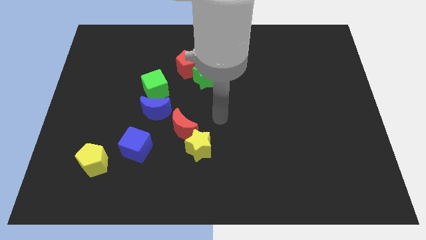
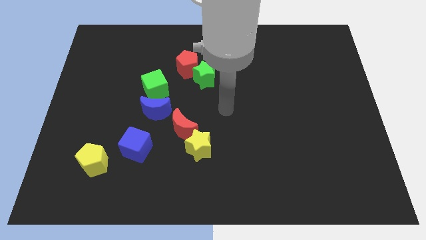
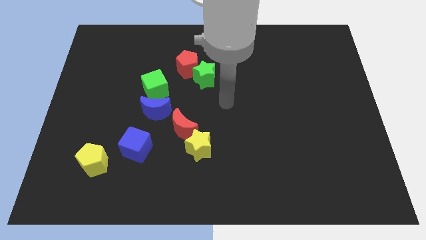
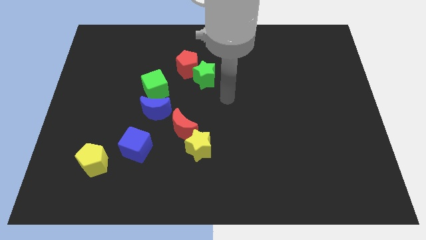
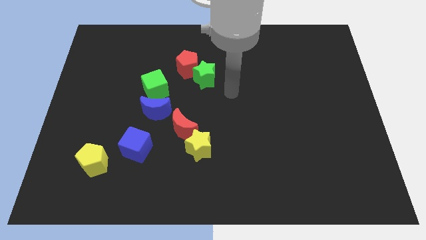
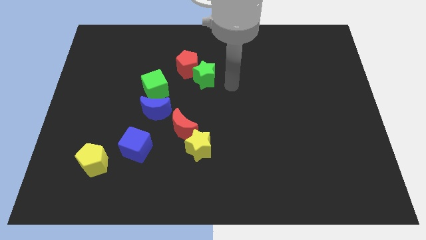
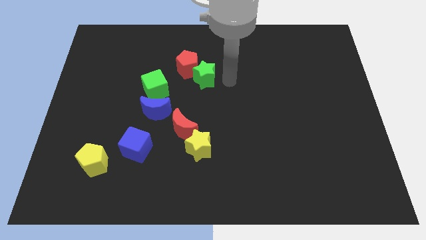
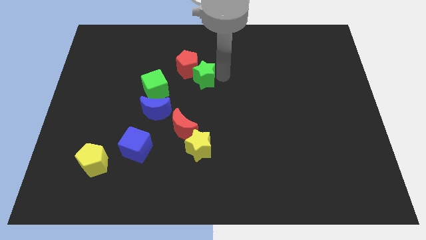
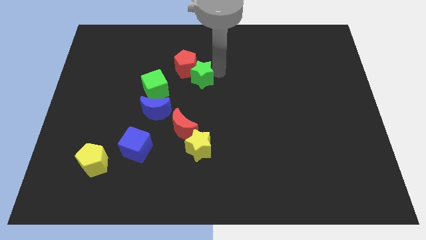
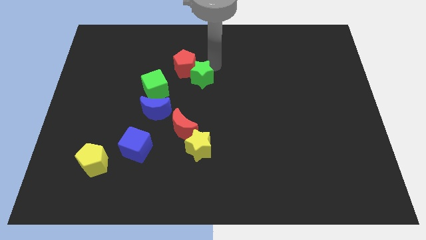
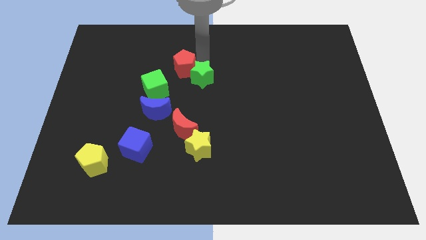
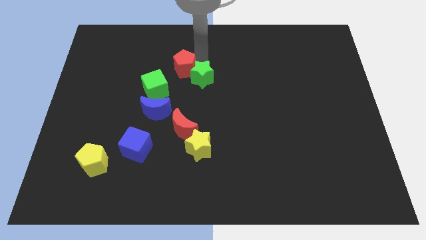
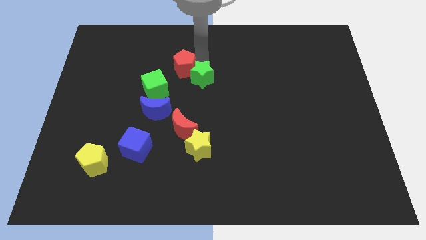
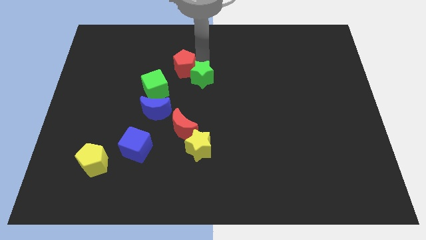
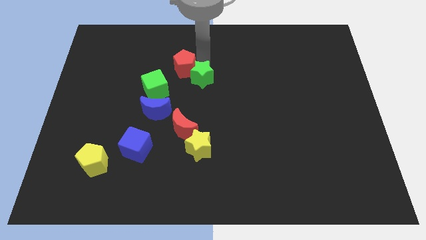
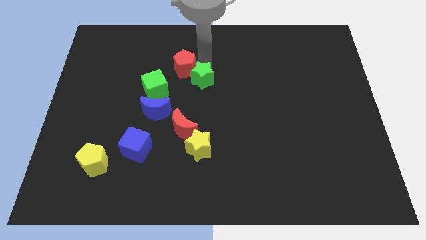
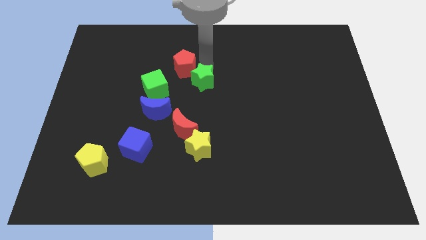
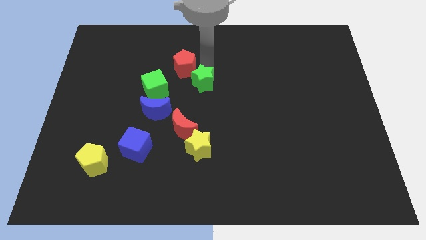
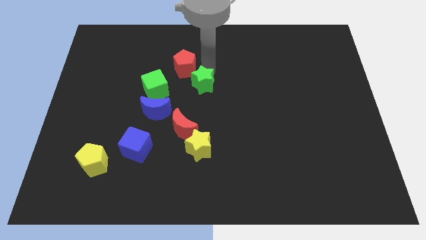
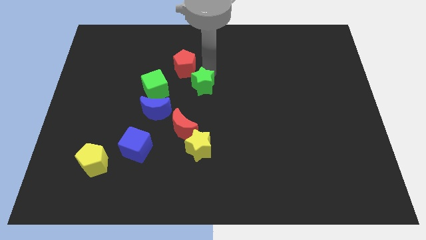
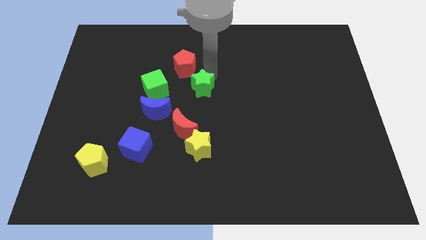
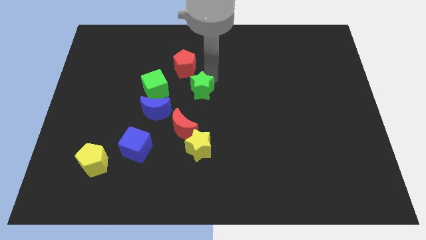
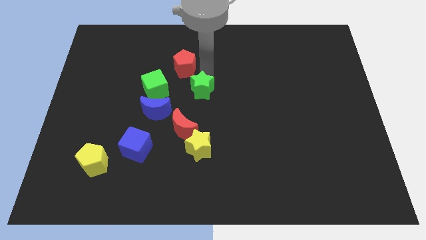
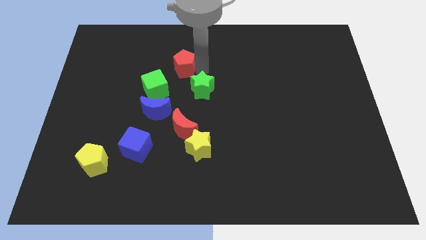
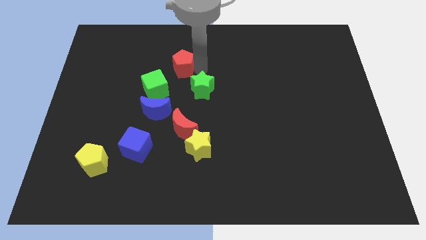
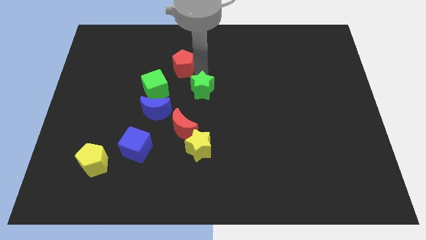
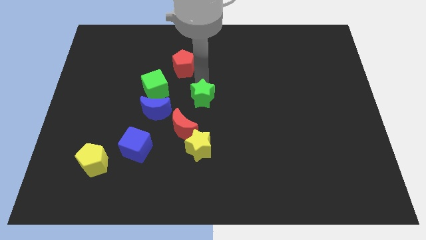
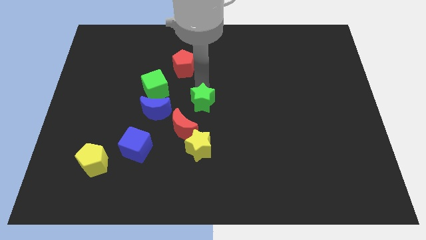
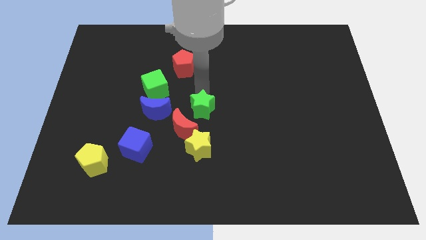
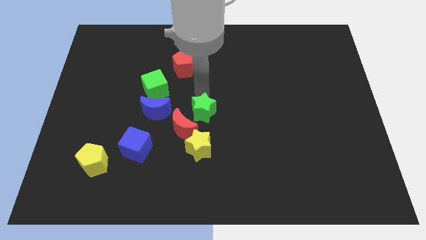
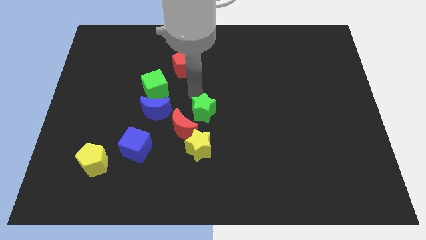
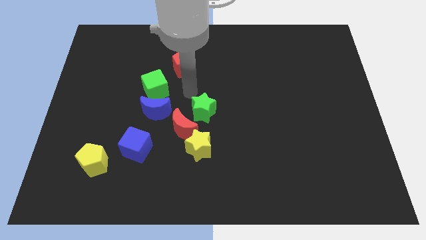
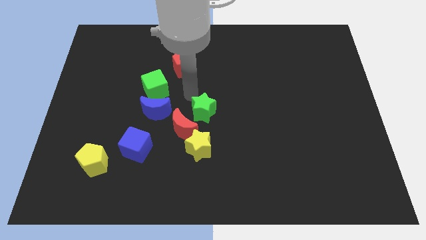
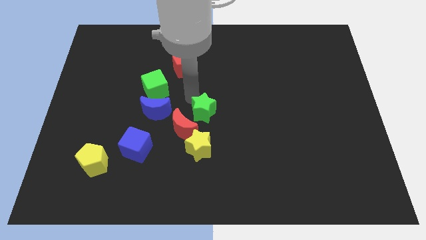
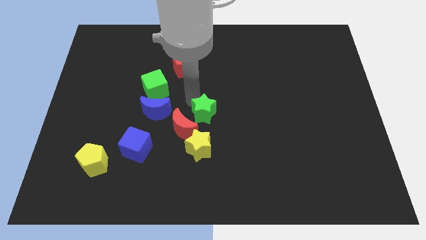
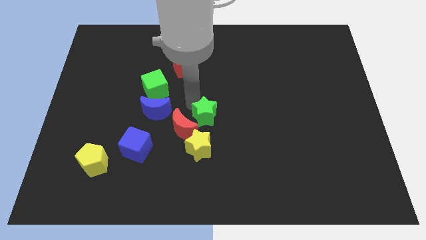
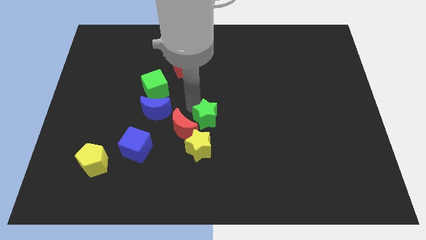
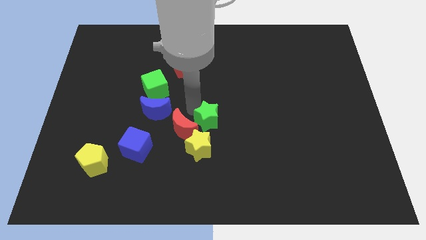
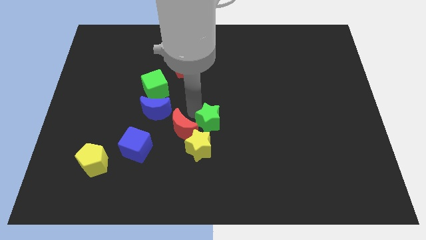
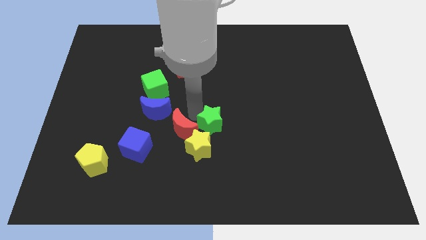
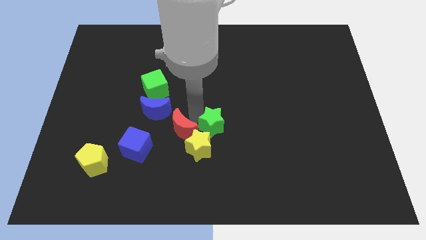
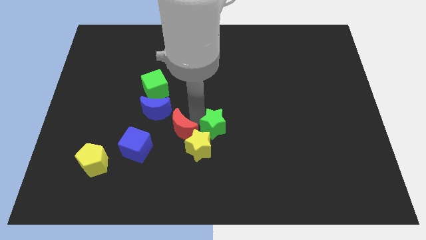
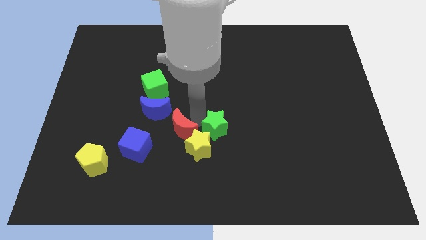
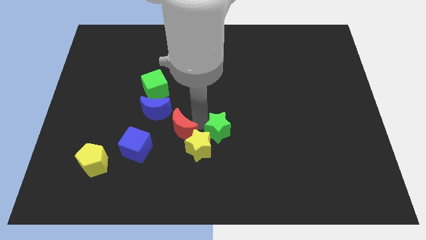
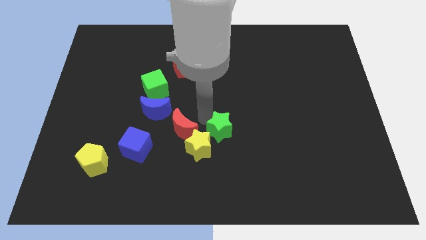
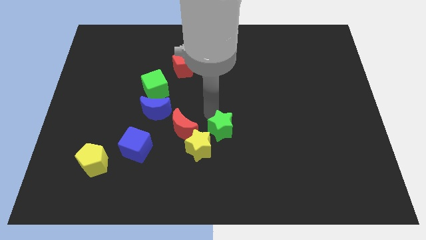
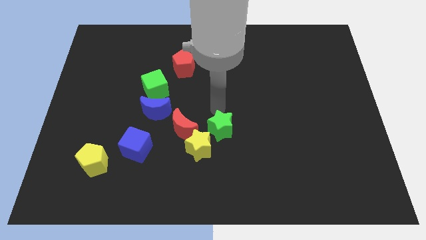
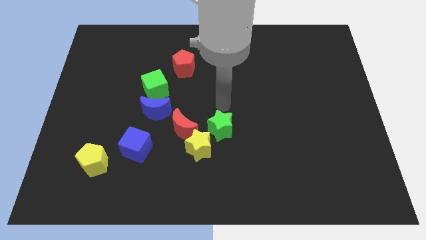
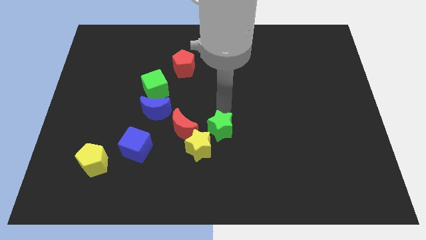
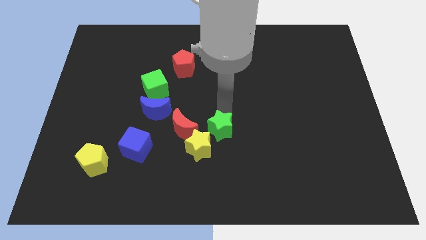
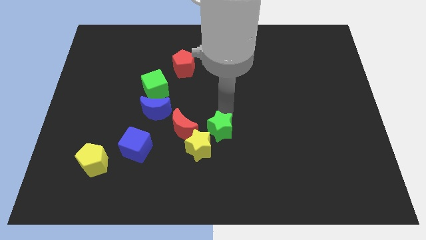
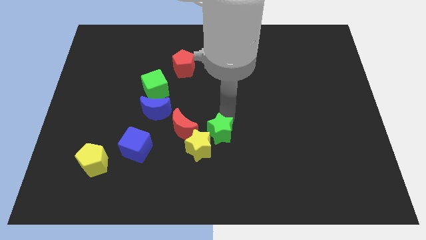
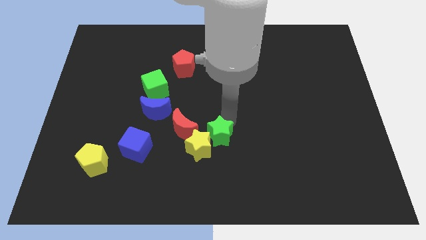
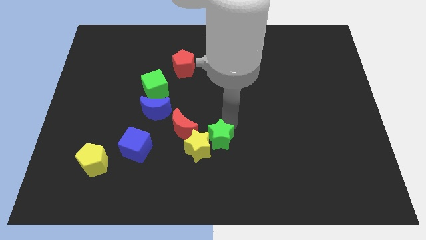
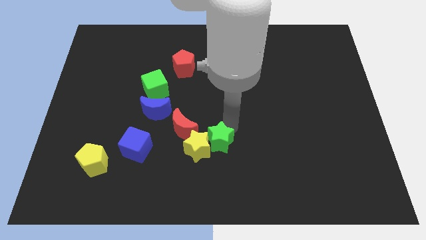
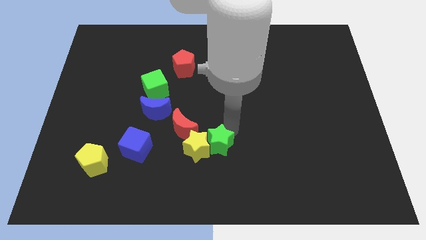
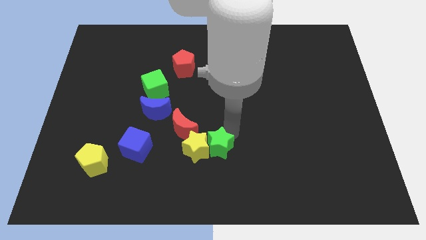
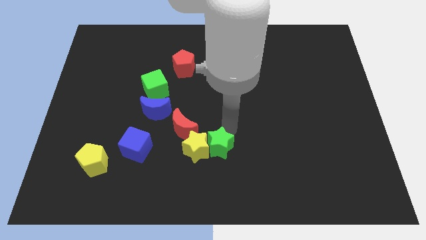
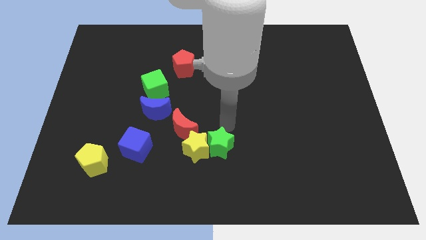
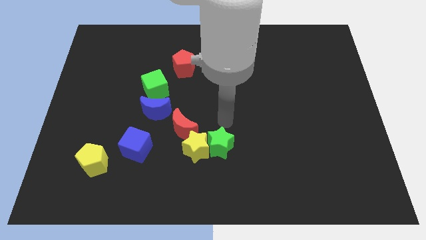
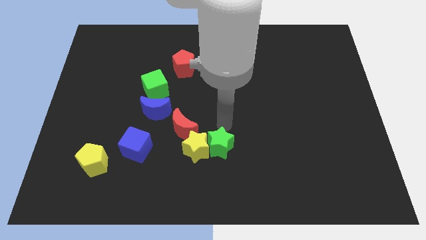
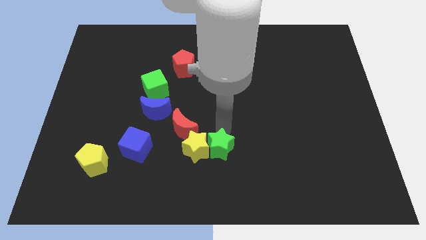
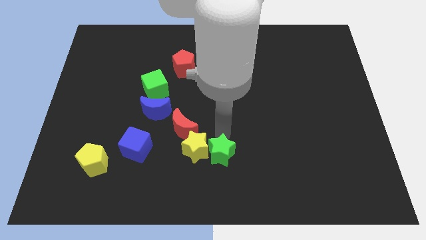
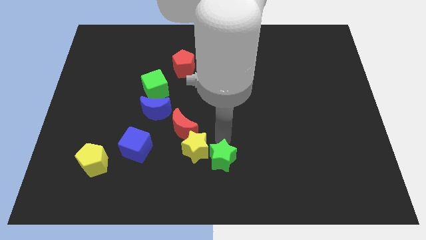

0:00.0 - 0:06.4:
put the green star to the bottom
